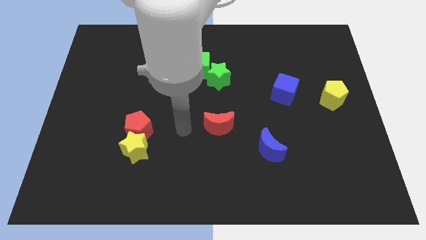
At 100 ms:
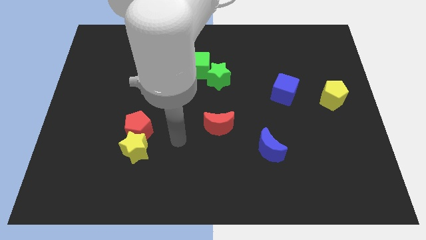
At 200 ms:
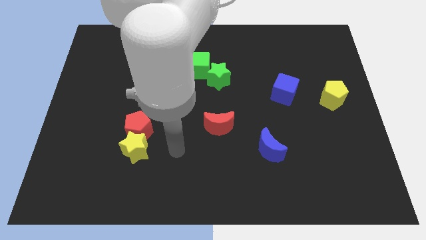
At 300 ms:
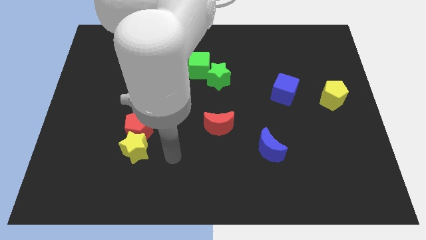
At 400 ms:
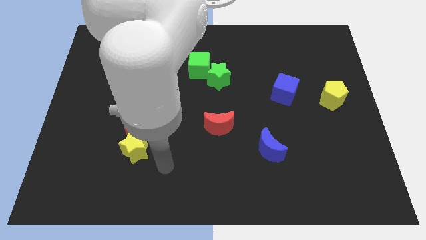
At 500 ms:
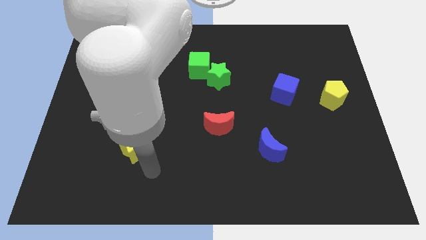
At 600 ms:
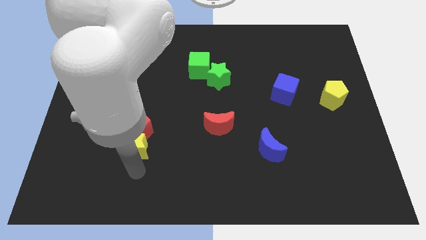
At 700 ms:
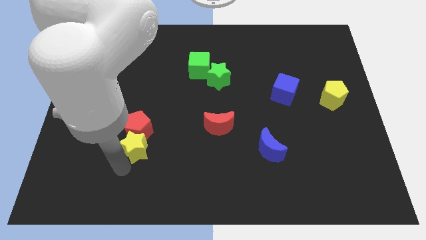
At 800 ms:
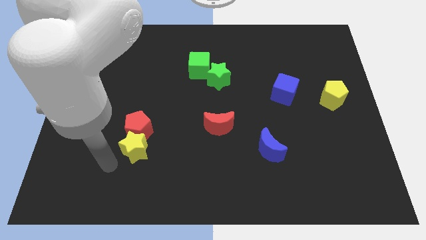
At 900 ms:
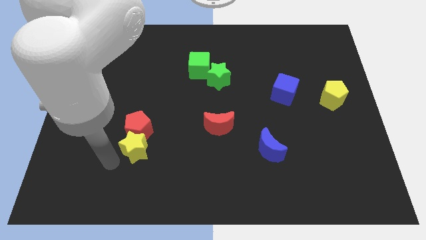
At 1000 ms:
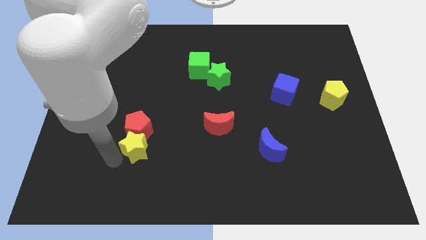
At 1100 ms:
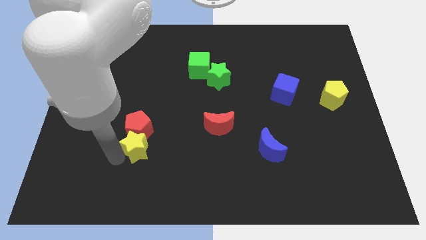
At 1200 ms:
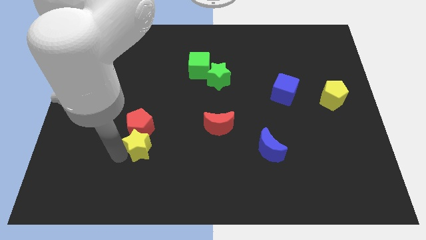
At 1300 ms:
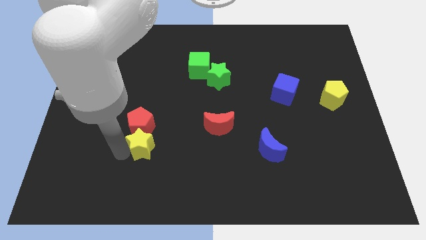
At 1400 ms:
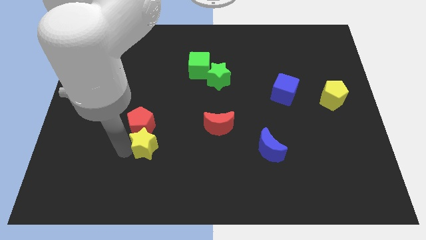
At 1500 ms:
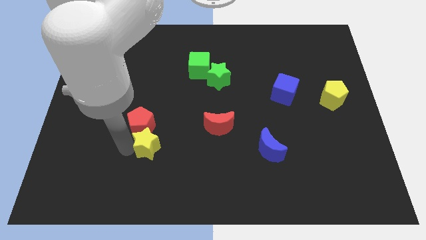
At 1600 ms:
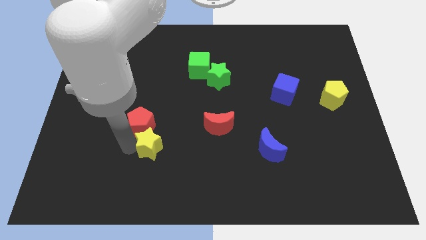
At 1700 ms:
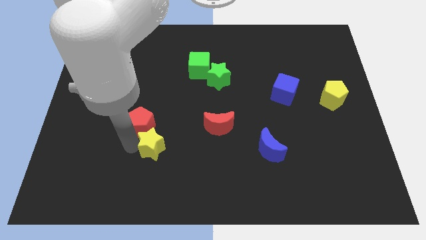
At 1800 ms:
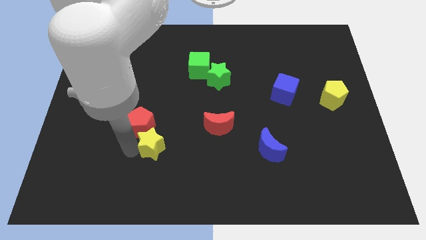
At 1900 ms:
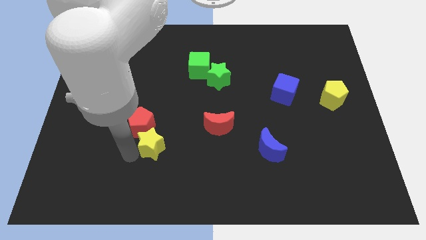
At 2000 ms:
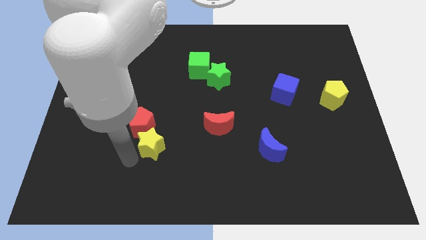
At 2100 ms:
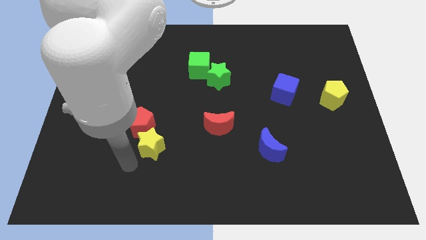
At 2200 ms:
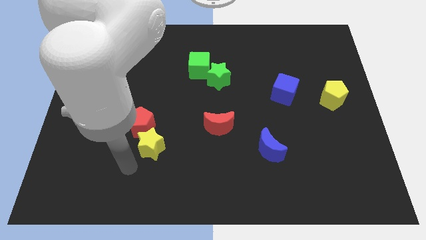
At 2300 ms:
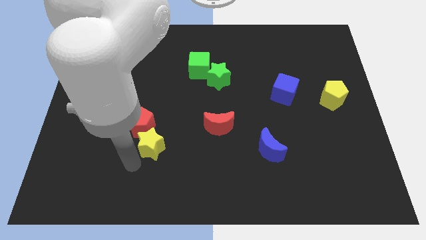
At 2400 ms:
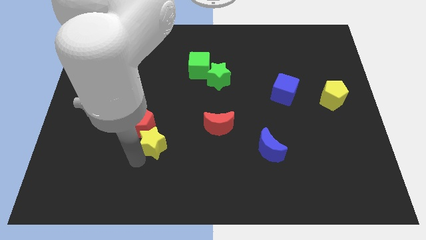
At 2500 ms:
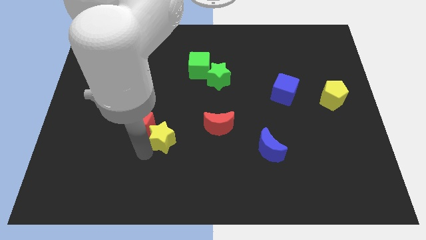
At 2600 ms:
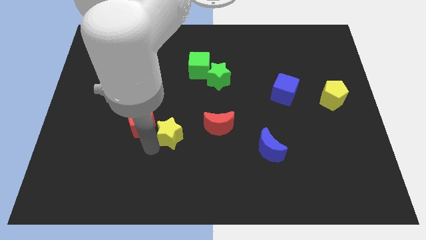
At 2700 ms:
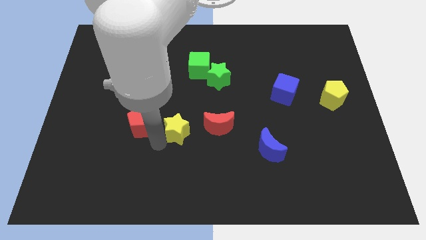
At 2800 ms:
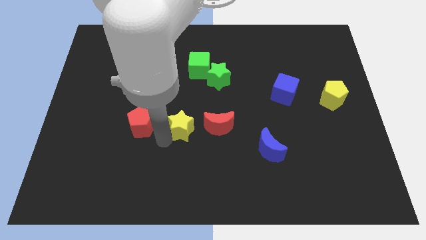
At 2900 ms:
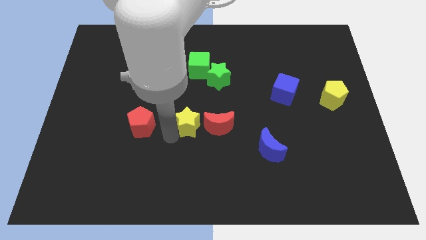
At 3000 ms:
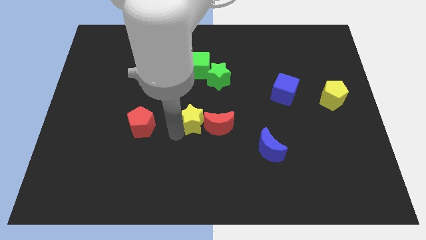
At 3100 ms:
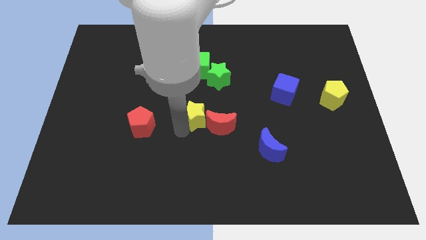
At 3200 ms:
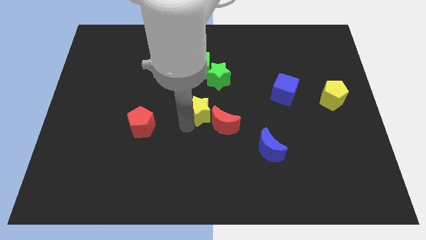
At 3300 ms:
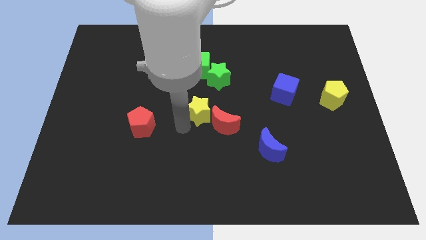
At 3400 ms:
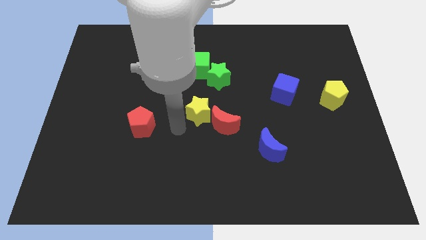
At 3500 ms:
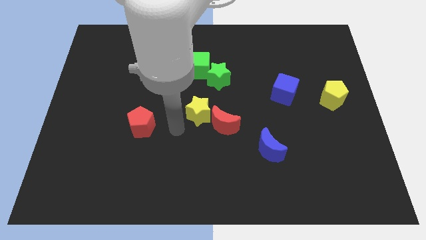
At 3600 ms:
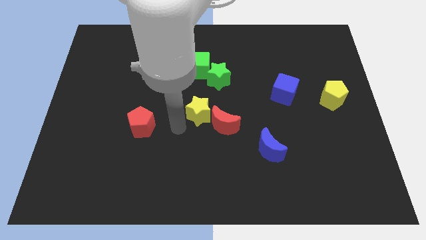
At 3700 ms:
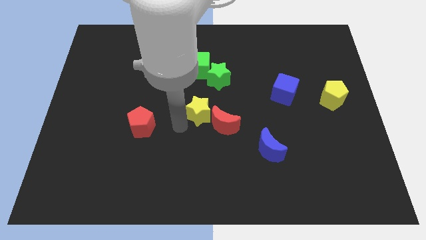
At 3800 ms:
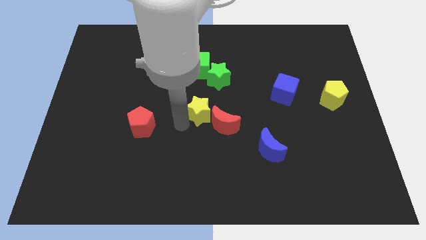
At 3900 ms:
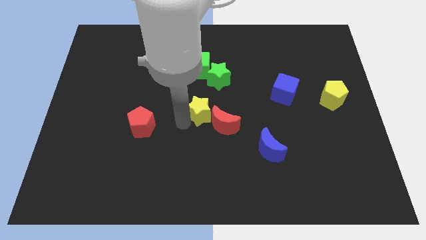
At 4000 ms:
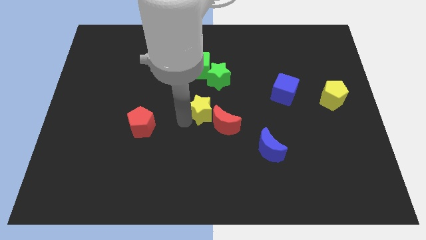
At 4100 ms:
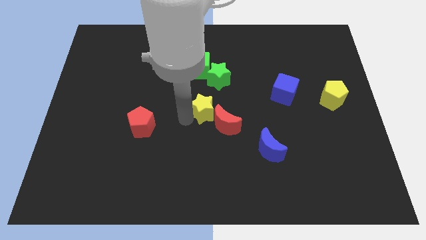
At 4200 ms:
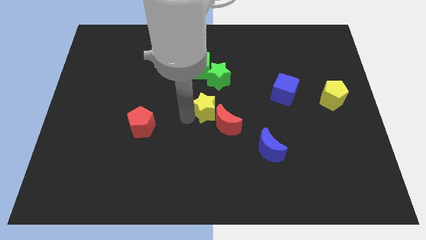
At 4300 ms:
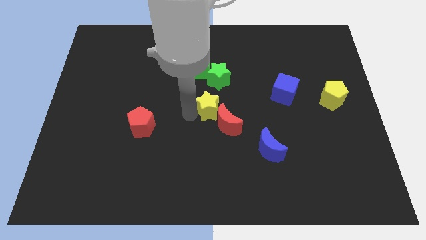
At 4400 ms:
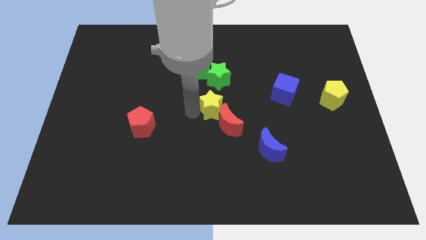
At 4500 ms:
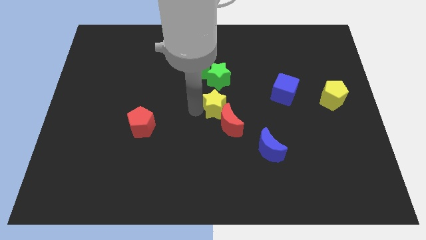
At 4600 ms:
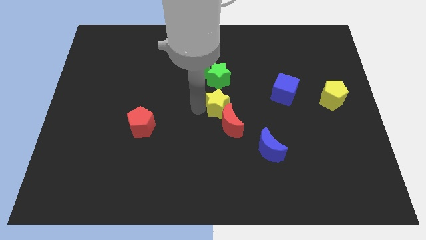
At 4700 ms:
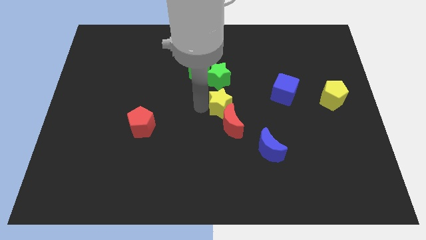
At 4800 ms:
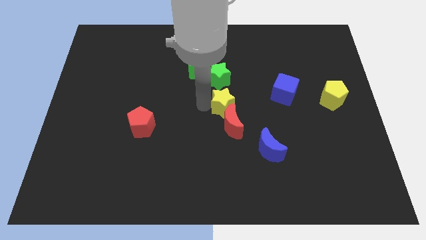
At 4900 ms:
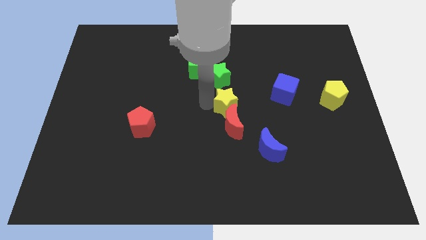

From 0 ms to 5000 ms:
move the yellow star to the bottom right side of the green star

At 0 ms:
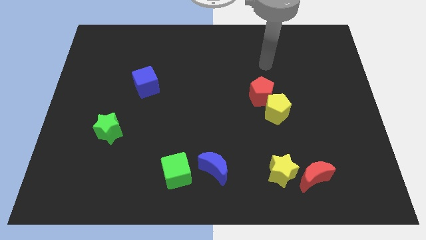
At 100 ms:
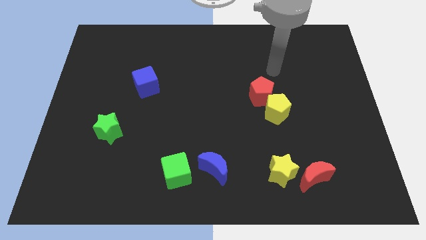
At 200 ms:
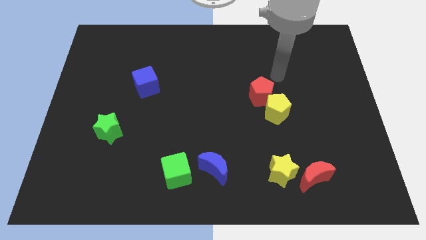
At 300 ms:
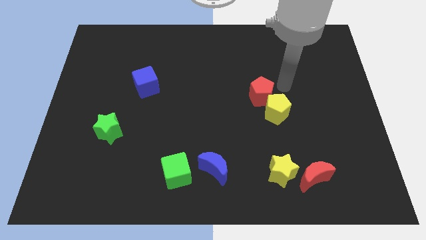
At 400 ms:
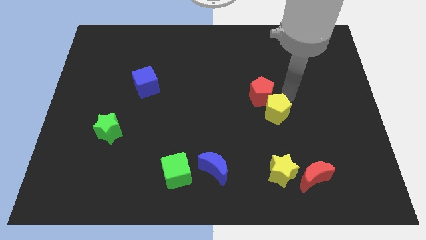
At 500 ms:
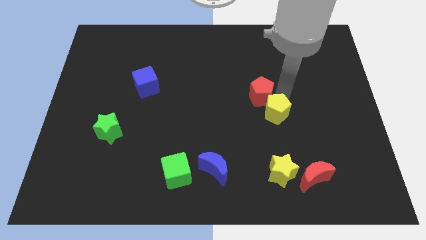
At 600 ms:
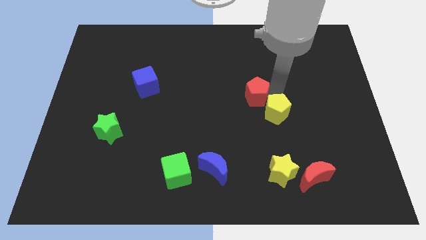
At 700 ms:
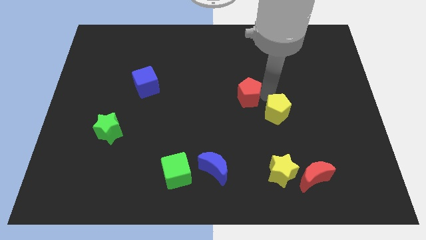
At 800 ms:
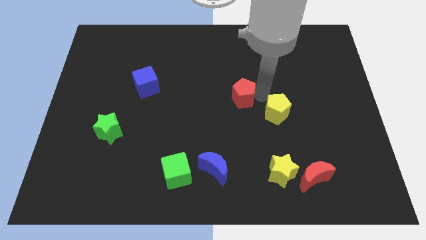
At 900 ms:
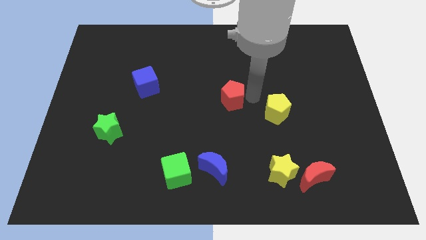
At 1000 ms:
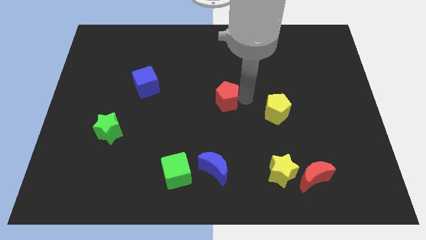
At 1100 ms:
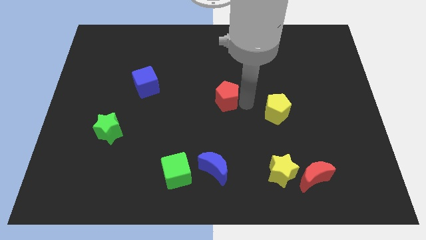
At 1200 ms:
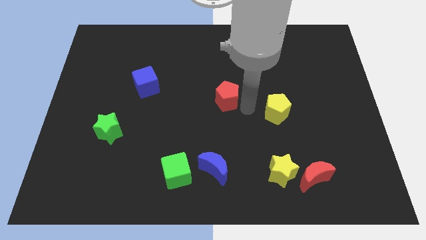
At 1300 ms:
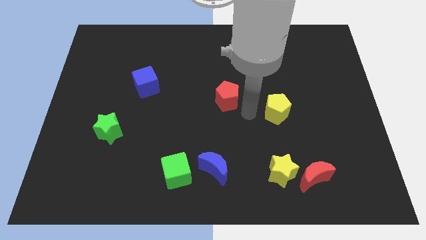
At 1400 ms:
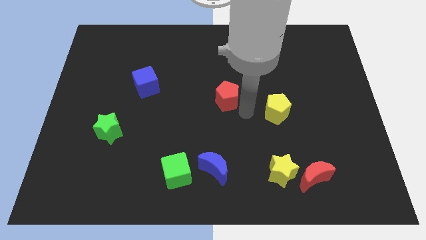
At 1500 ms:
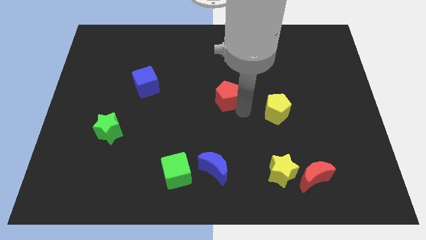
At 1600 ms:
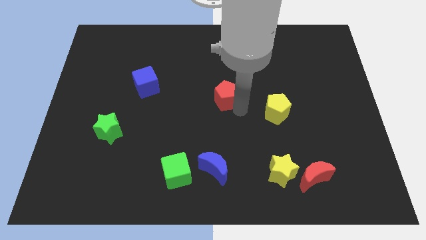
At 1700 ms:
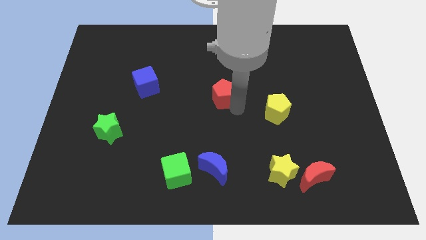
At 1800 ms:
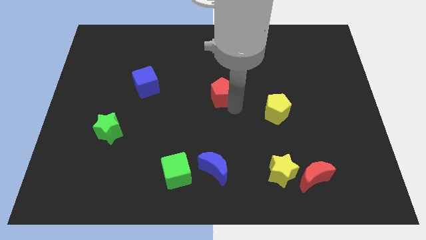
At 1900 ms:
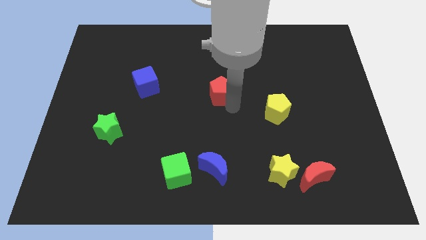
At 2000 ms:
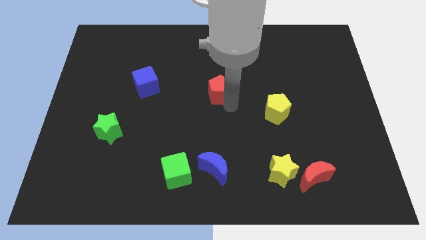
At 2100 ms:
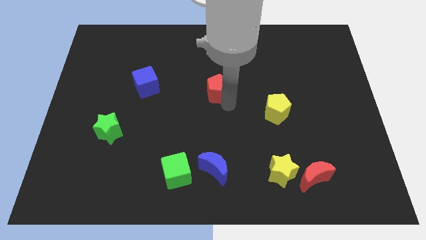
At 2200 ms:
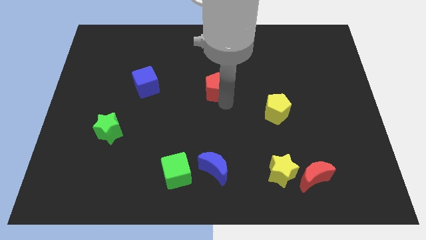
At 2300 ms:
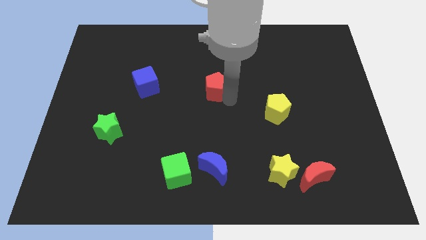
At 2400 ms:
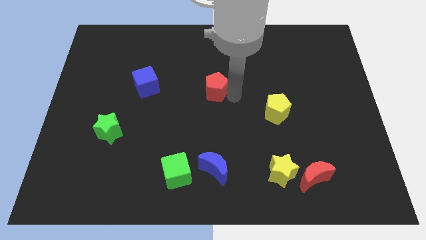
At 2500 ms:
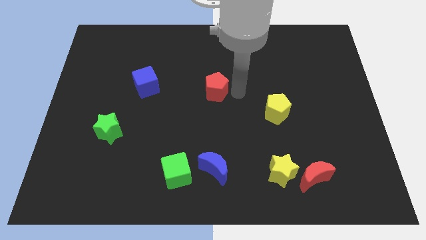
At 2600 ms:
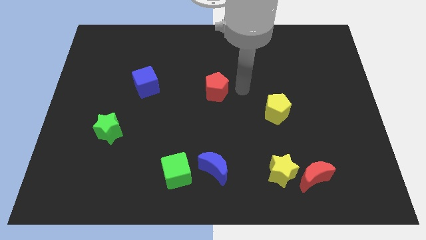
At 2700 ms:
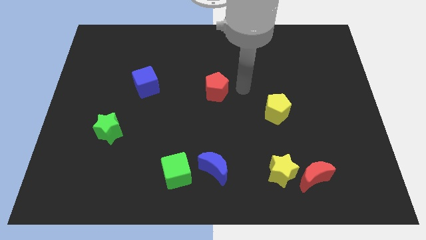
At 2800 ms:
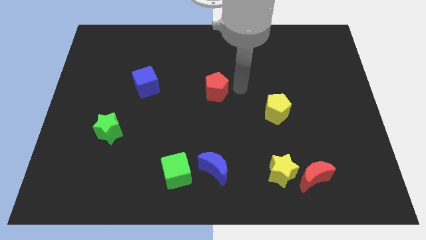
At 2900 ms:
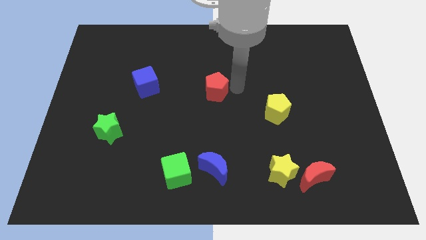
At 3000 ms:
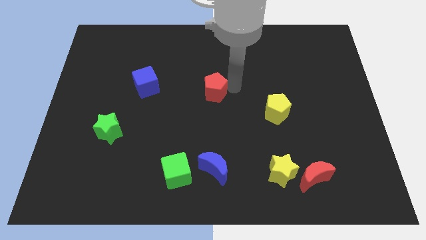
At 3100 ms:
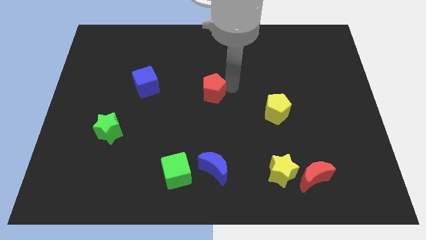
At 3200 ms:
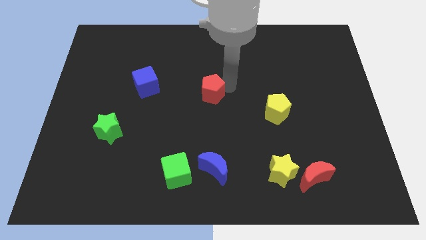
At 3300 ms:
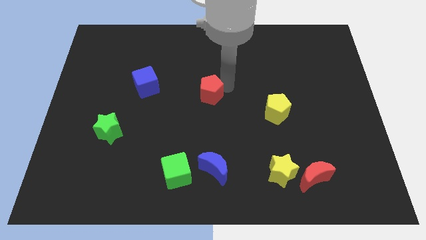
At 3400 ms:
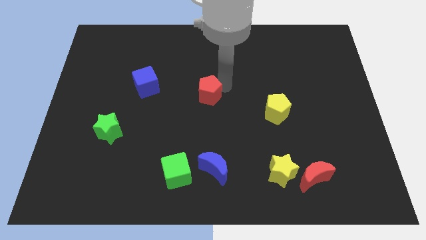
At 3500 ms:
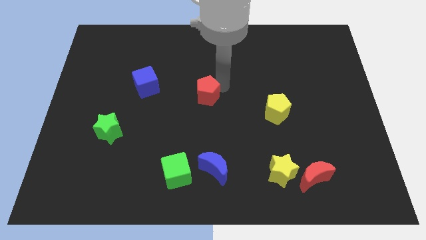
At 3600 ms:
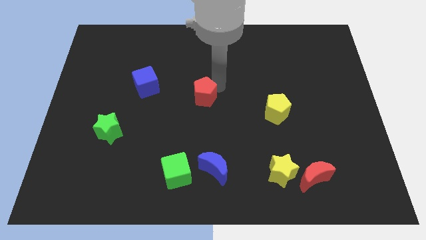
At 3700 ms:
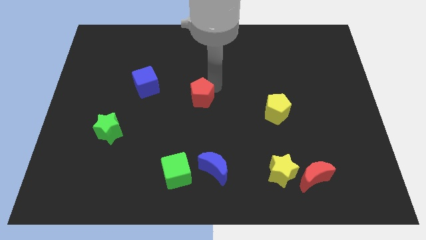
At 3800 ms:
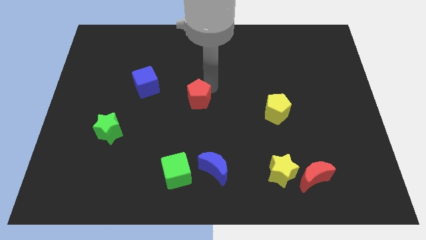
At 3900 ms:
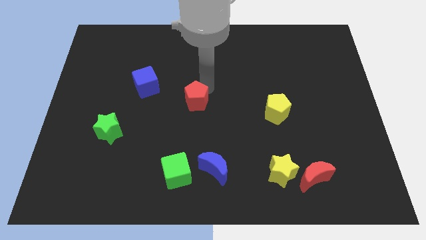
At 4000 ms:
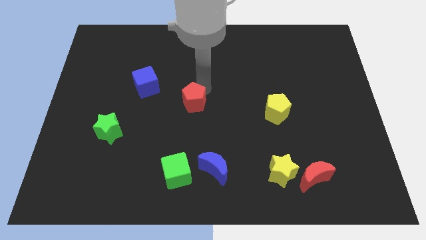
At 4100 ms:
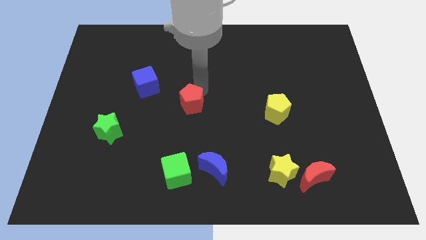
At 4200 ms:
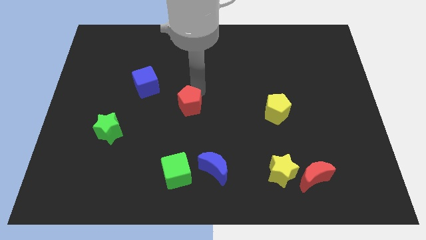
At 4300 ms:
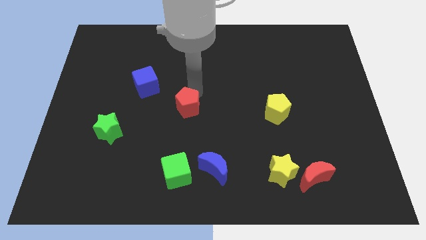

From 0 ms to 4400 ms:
slide the red pentagon diagonally down and to the right of the blue cube
